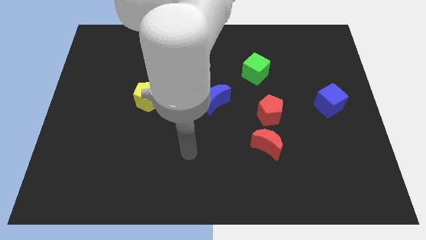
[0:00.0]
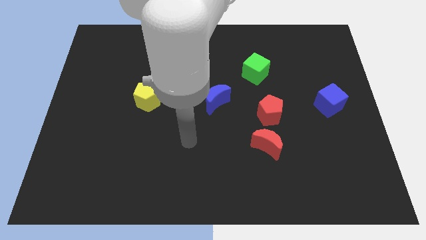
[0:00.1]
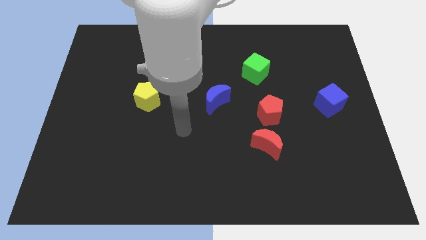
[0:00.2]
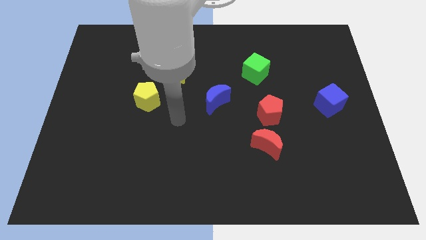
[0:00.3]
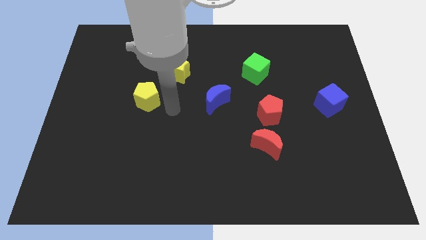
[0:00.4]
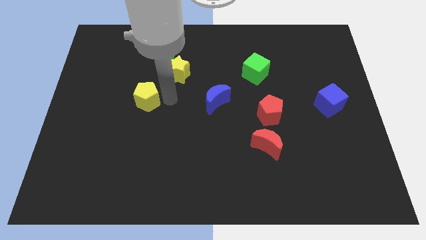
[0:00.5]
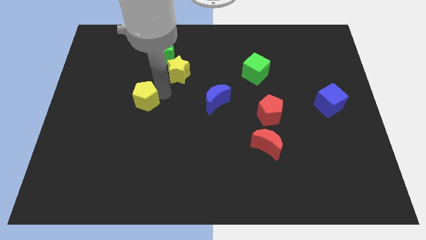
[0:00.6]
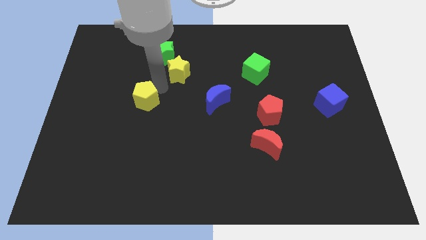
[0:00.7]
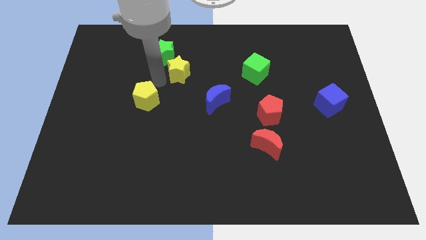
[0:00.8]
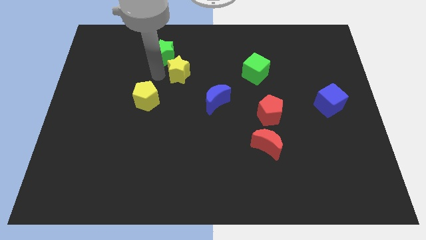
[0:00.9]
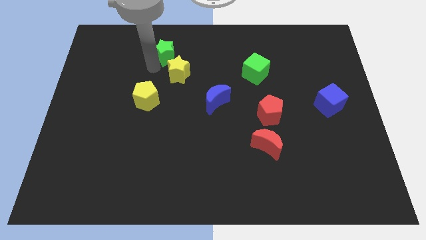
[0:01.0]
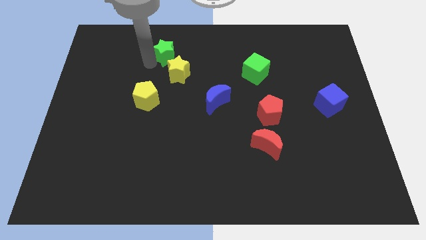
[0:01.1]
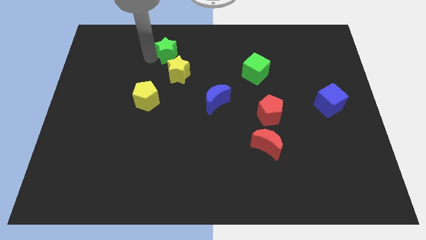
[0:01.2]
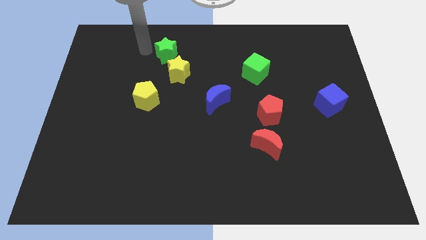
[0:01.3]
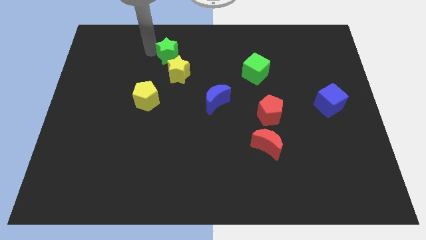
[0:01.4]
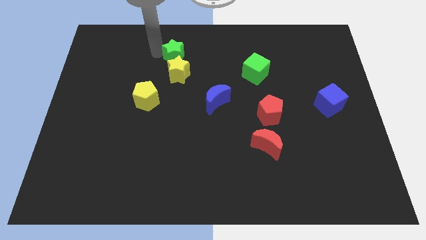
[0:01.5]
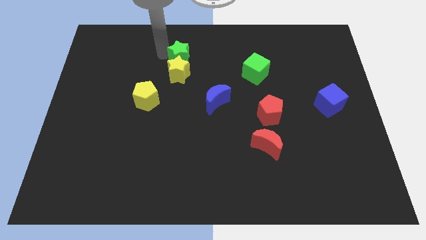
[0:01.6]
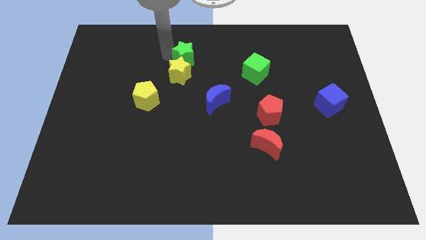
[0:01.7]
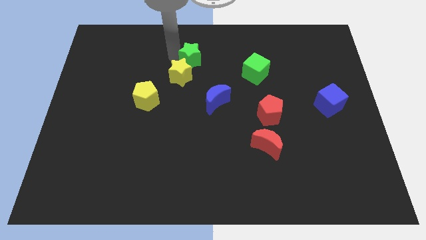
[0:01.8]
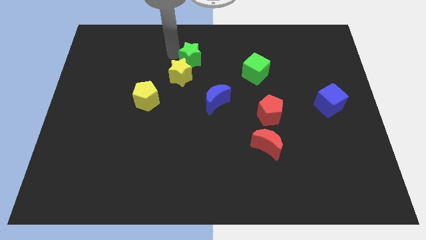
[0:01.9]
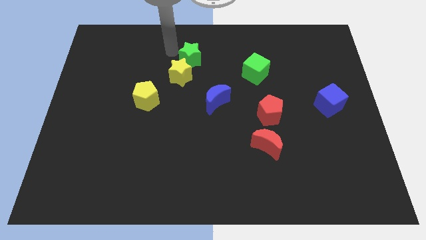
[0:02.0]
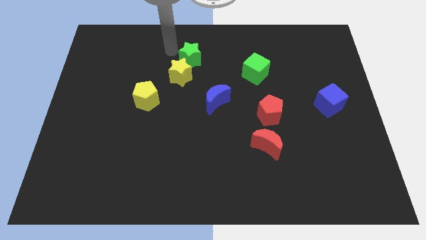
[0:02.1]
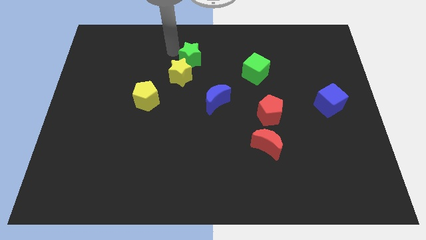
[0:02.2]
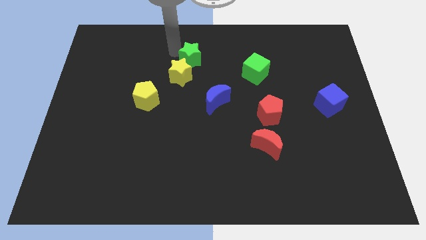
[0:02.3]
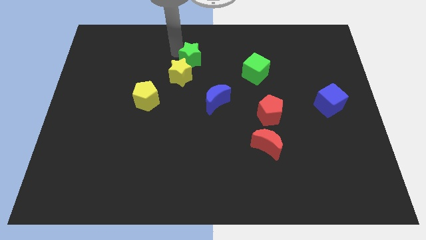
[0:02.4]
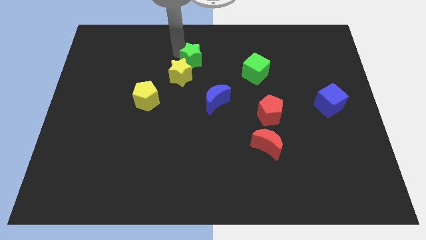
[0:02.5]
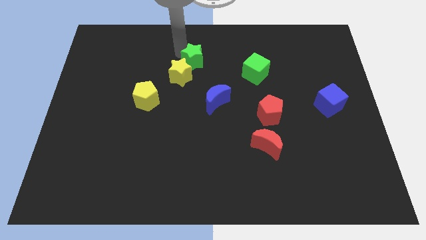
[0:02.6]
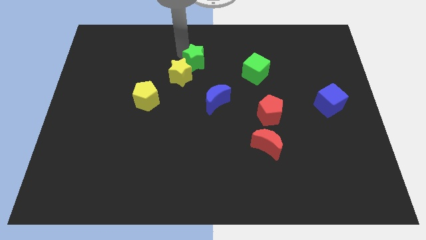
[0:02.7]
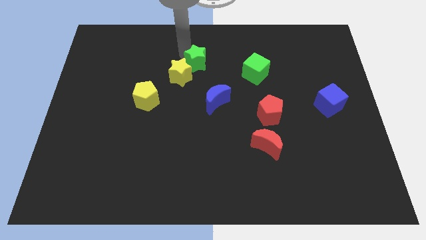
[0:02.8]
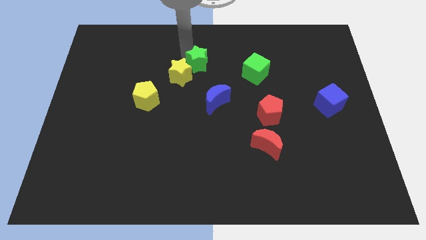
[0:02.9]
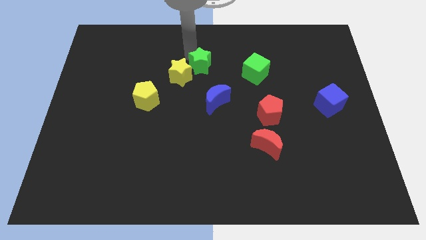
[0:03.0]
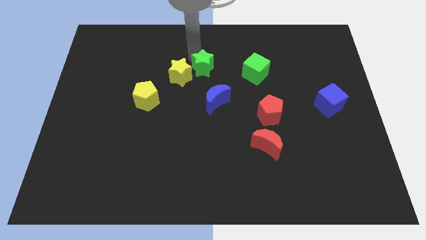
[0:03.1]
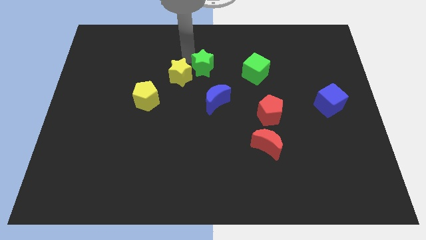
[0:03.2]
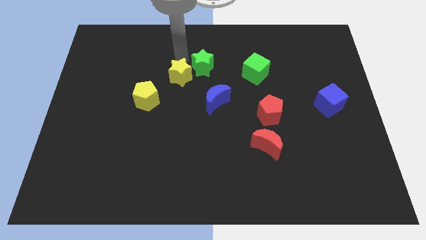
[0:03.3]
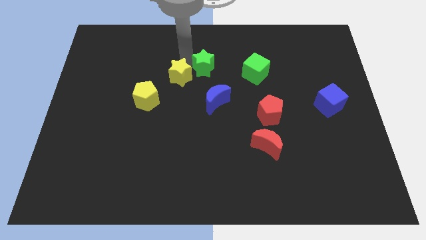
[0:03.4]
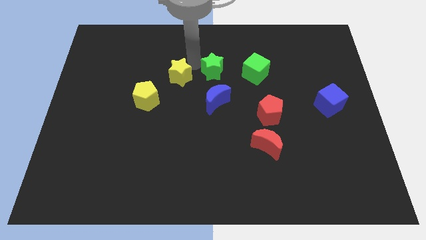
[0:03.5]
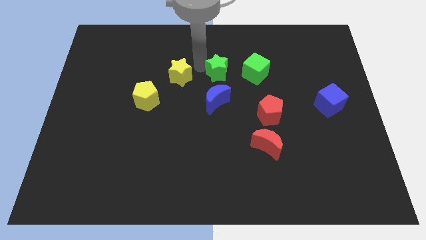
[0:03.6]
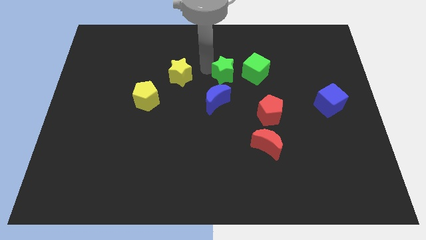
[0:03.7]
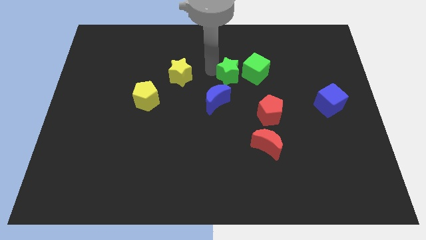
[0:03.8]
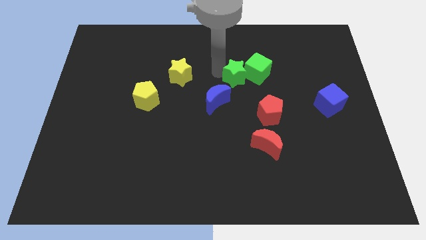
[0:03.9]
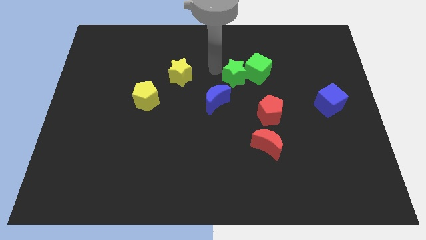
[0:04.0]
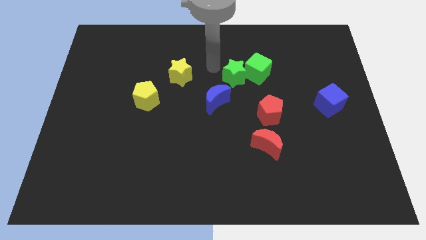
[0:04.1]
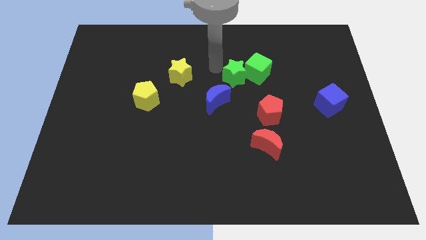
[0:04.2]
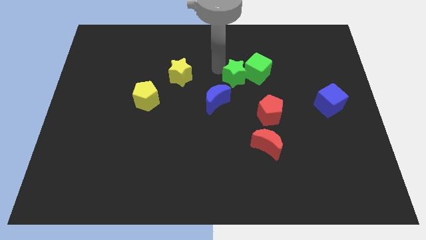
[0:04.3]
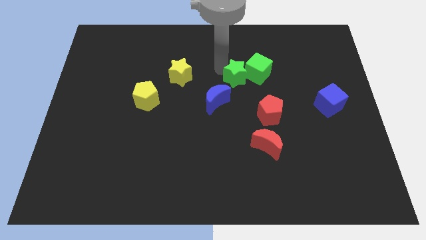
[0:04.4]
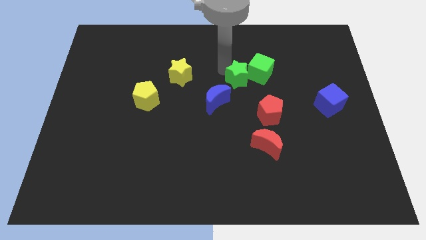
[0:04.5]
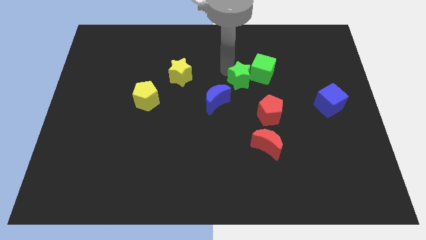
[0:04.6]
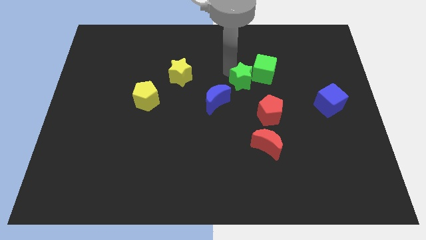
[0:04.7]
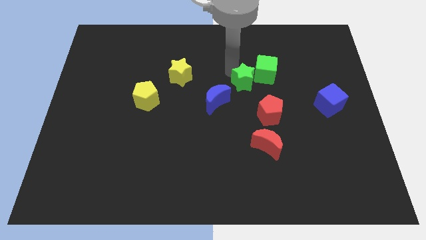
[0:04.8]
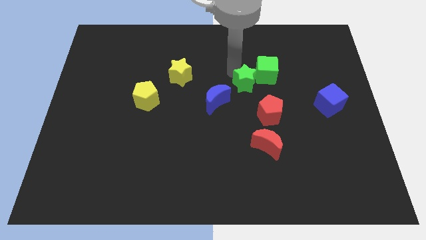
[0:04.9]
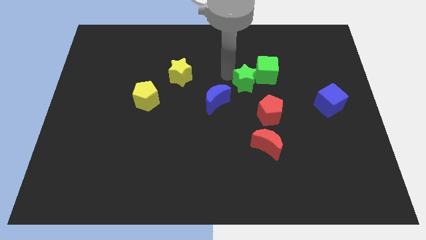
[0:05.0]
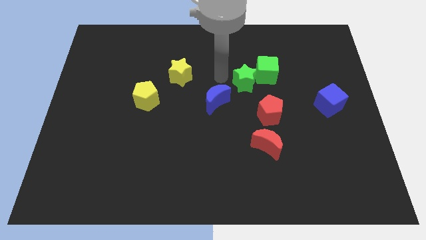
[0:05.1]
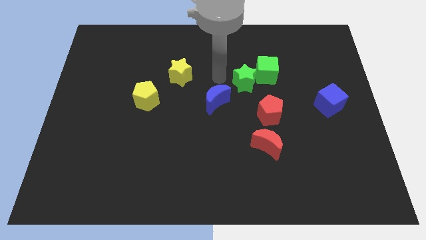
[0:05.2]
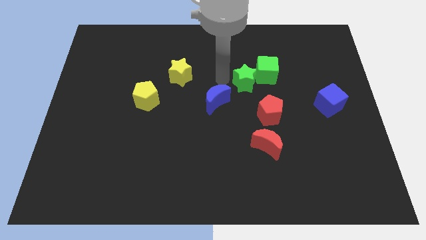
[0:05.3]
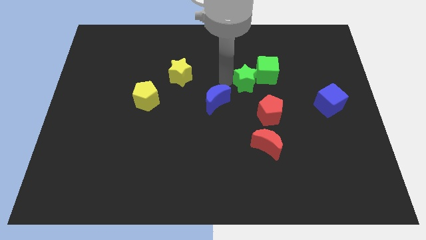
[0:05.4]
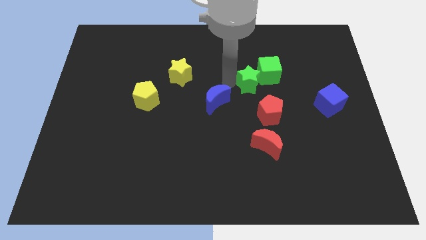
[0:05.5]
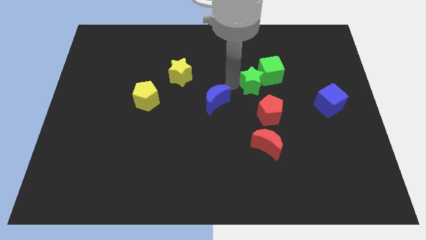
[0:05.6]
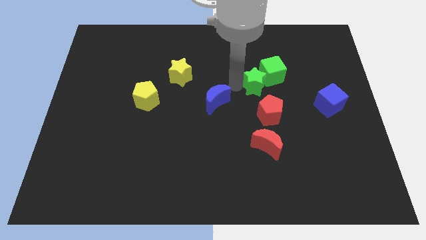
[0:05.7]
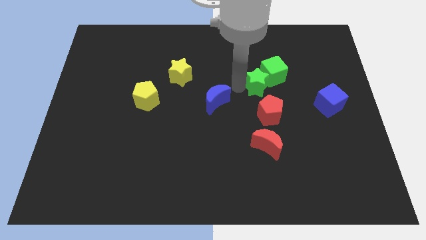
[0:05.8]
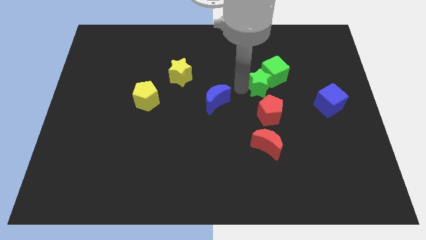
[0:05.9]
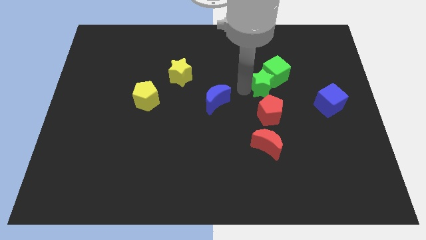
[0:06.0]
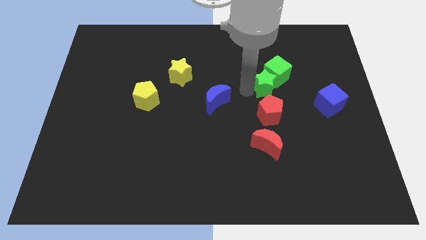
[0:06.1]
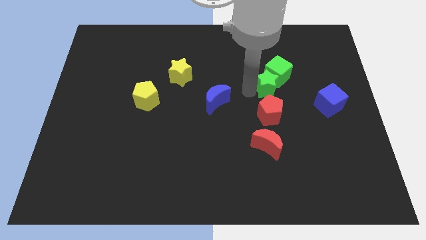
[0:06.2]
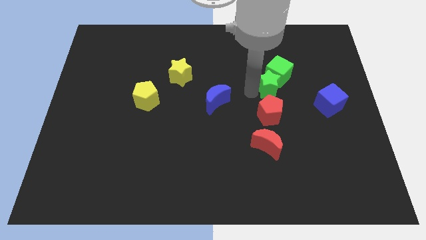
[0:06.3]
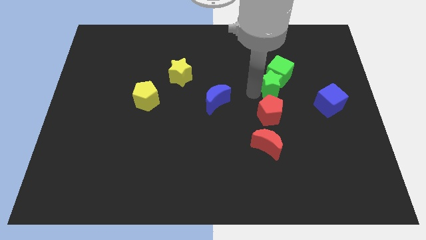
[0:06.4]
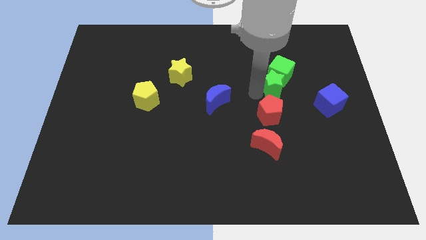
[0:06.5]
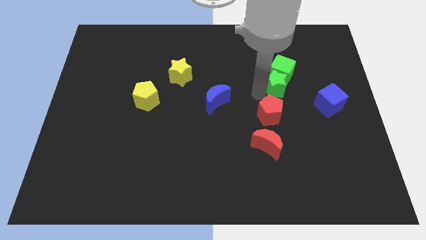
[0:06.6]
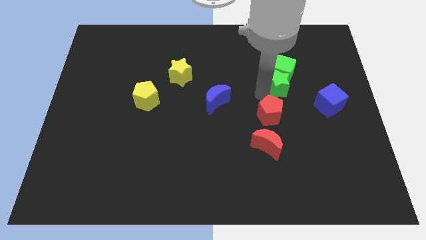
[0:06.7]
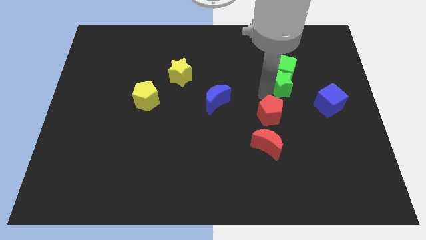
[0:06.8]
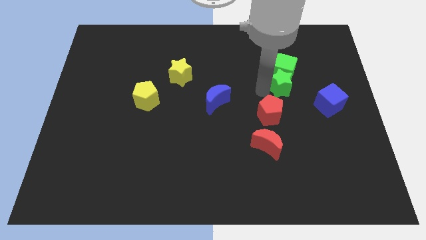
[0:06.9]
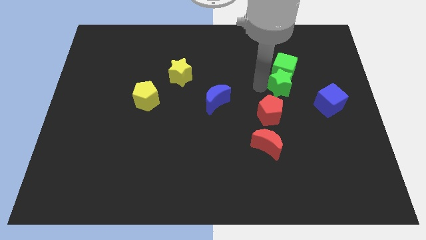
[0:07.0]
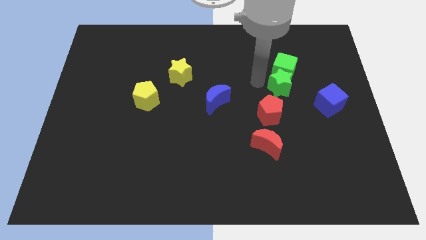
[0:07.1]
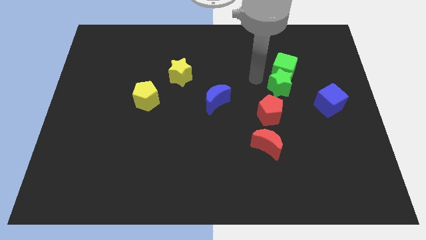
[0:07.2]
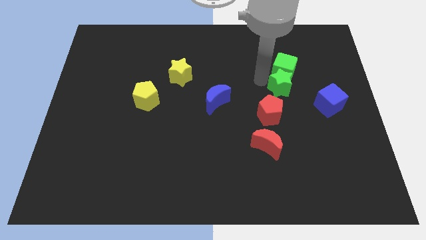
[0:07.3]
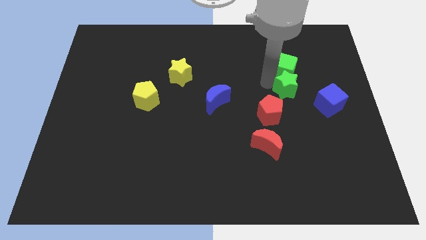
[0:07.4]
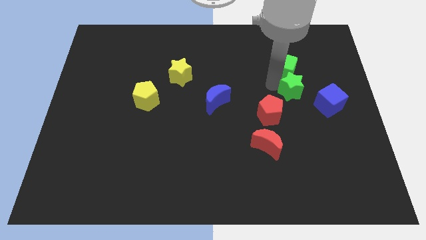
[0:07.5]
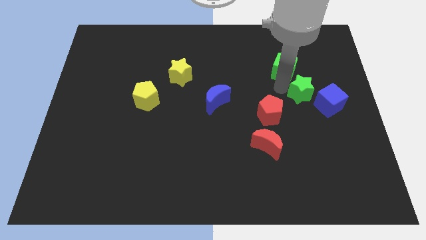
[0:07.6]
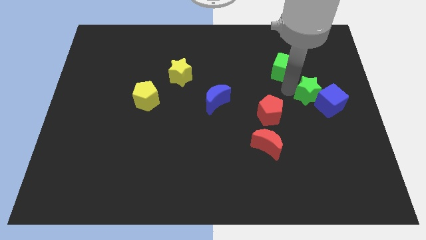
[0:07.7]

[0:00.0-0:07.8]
move the green star to the blue cube

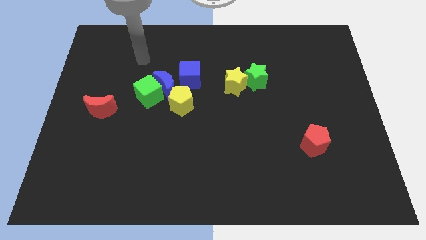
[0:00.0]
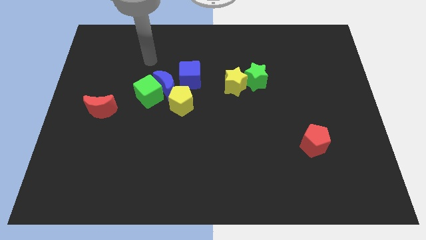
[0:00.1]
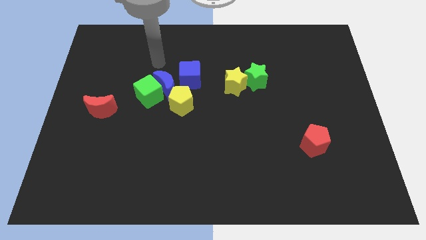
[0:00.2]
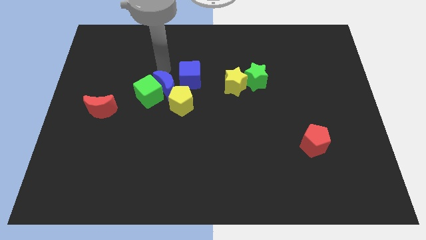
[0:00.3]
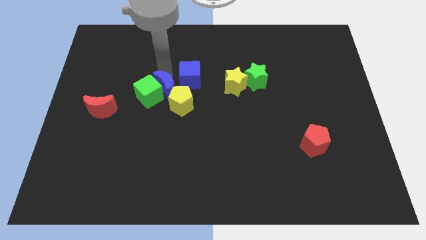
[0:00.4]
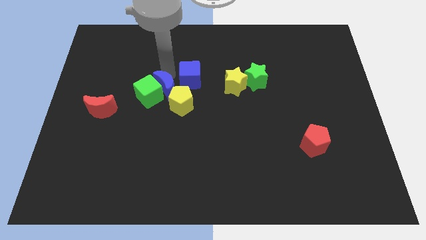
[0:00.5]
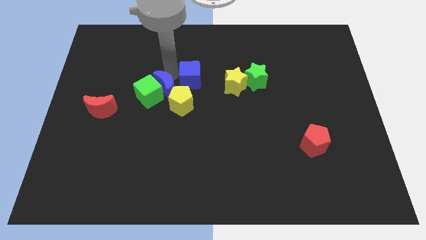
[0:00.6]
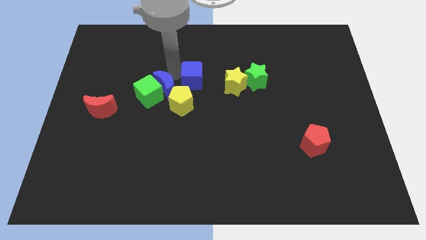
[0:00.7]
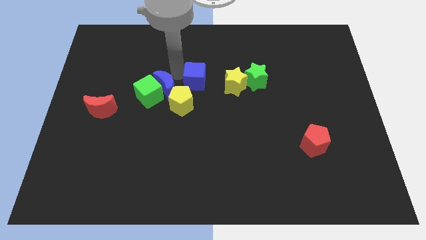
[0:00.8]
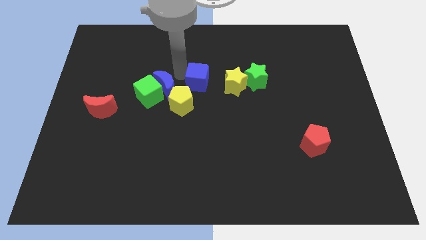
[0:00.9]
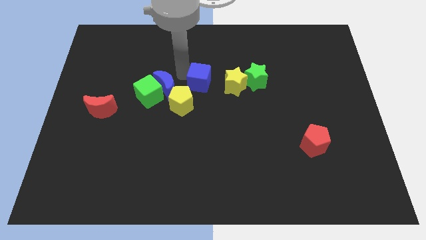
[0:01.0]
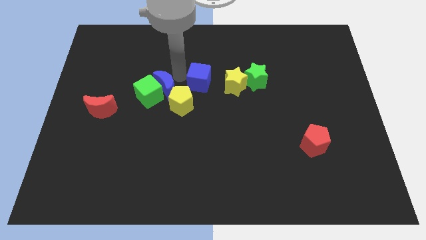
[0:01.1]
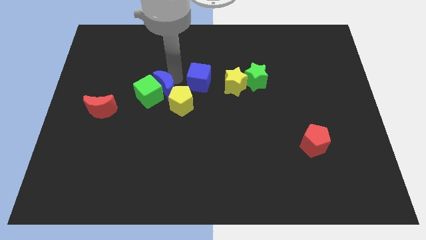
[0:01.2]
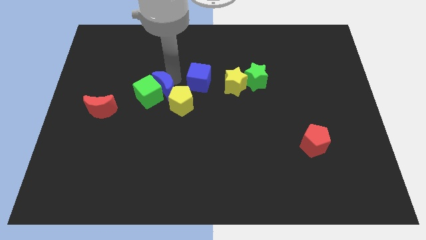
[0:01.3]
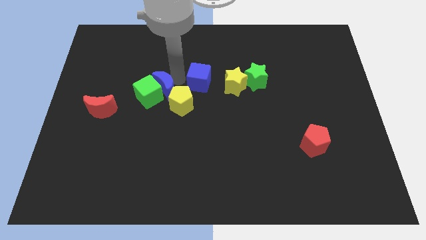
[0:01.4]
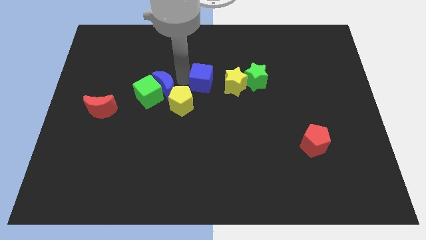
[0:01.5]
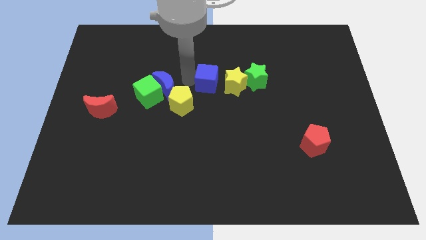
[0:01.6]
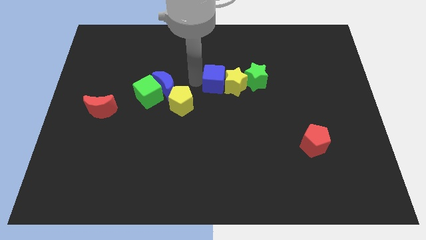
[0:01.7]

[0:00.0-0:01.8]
slide the blue cube towards the yellow star
